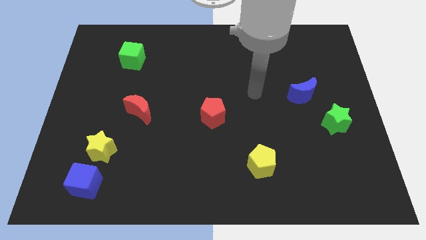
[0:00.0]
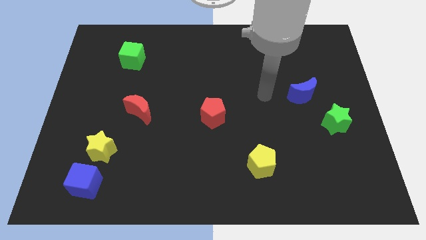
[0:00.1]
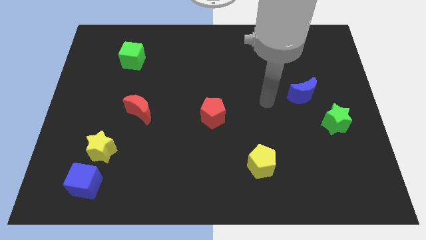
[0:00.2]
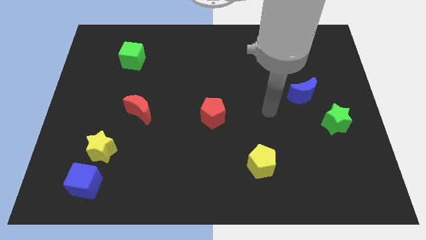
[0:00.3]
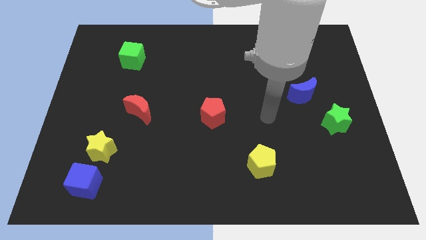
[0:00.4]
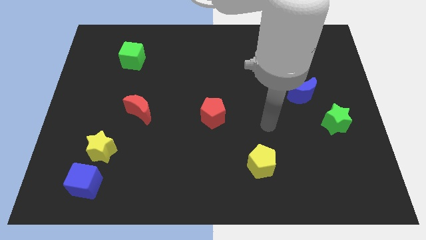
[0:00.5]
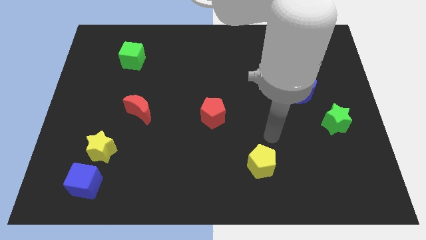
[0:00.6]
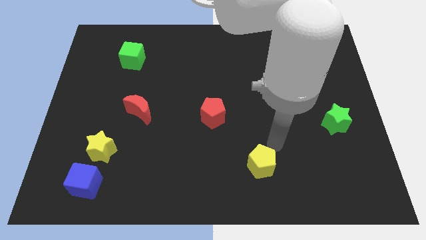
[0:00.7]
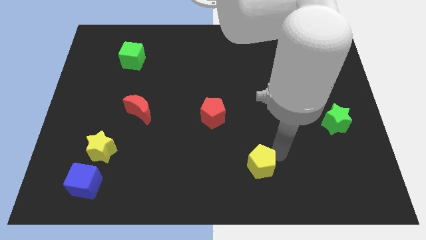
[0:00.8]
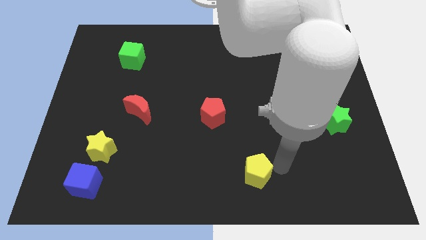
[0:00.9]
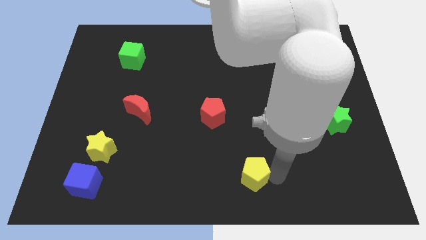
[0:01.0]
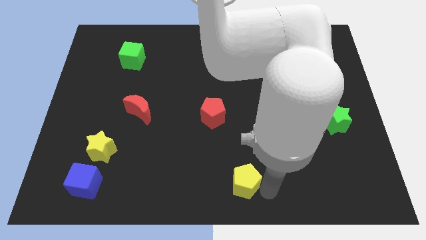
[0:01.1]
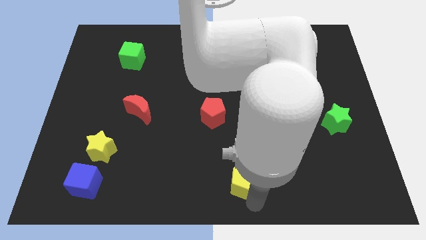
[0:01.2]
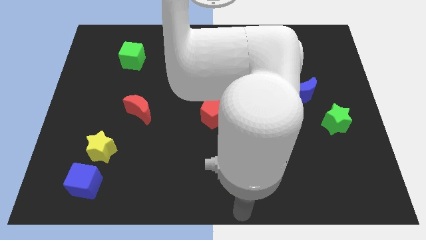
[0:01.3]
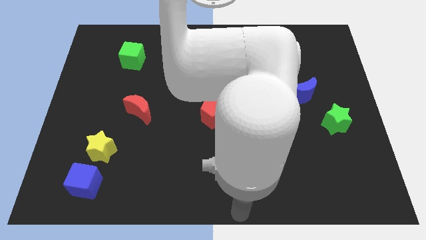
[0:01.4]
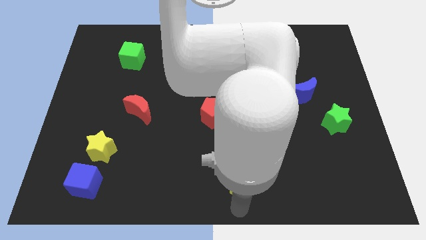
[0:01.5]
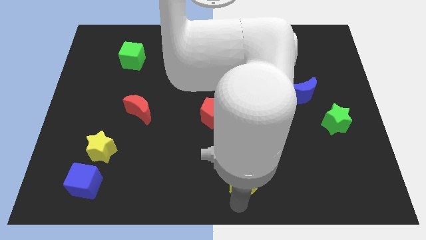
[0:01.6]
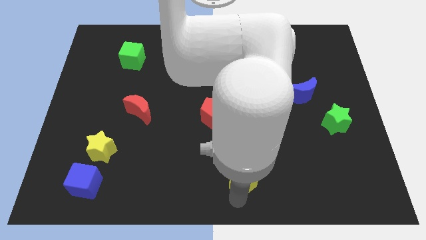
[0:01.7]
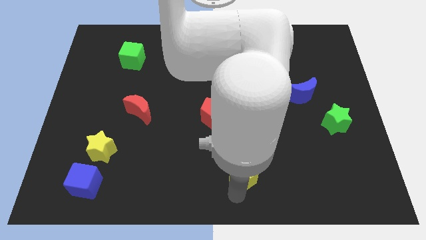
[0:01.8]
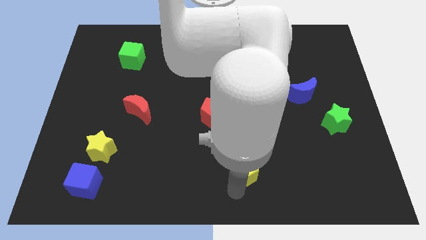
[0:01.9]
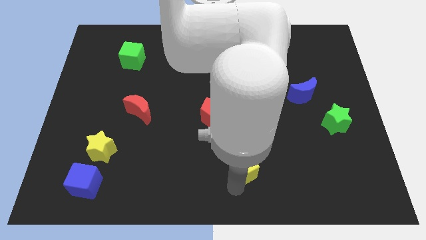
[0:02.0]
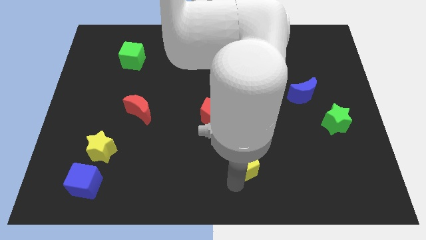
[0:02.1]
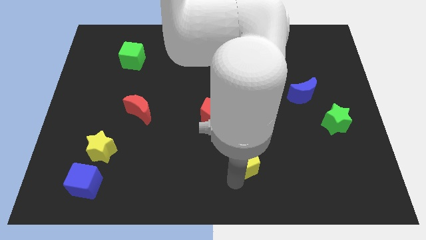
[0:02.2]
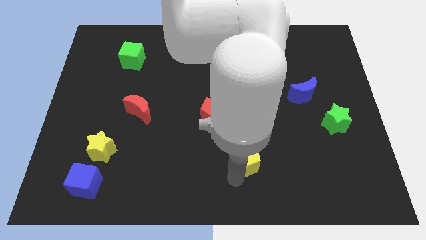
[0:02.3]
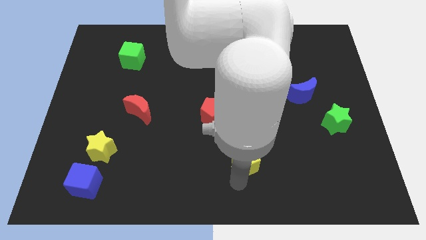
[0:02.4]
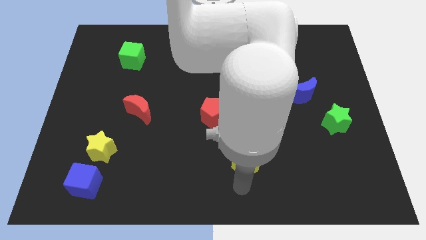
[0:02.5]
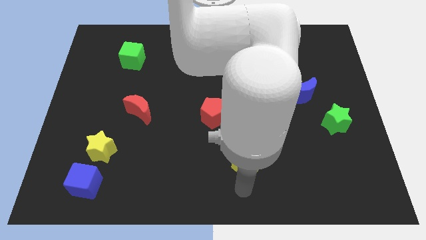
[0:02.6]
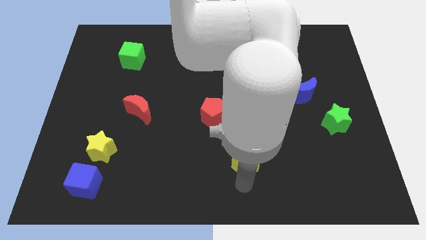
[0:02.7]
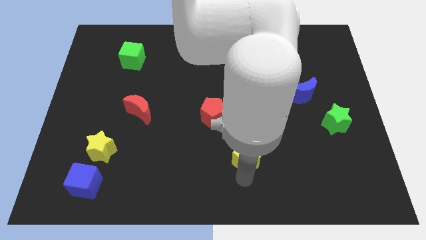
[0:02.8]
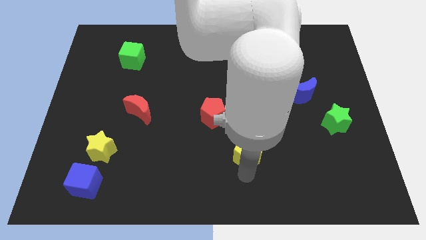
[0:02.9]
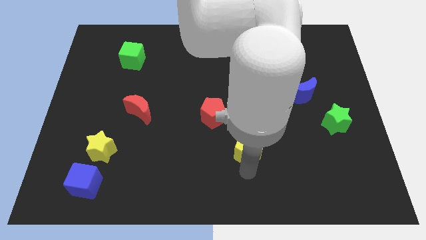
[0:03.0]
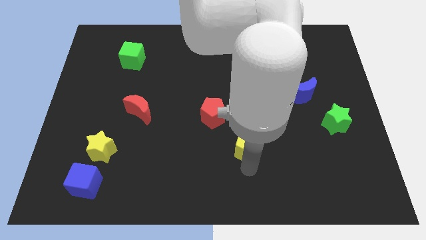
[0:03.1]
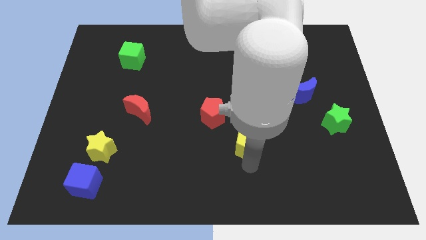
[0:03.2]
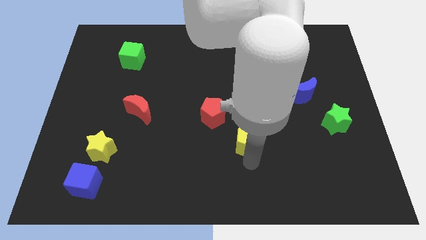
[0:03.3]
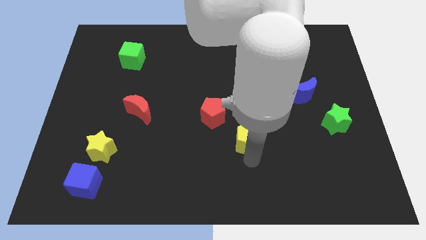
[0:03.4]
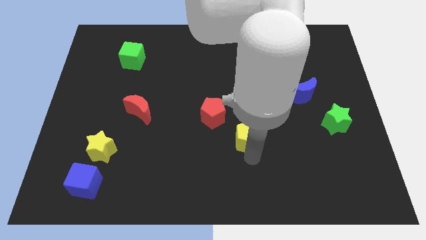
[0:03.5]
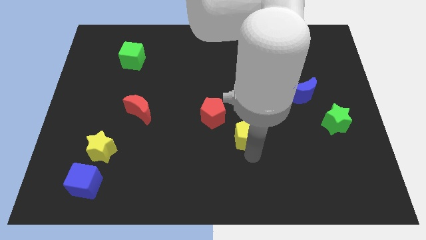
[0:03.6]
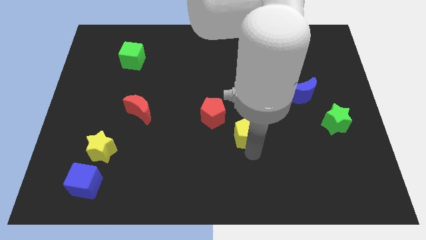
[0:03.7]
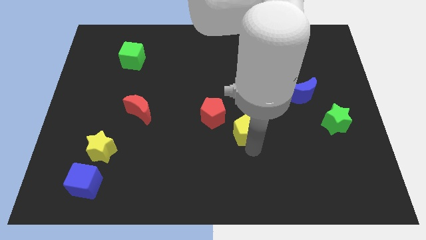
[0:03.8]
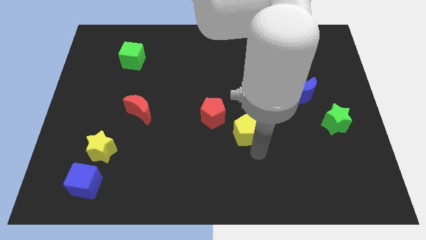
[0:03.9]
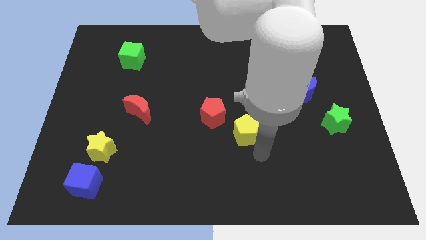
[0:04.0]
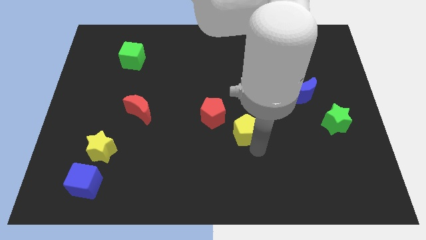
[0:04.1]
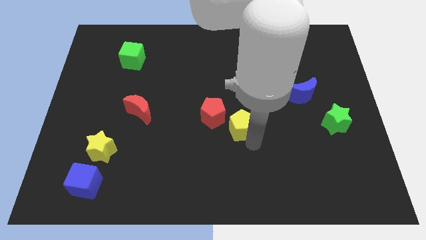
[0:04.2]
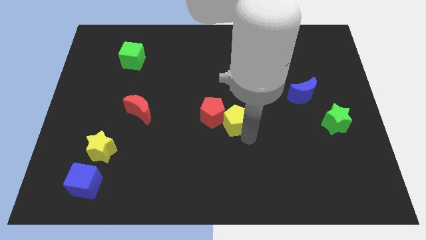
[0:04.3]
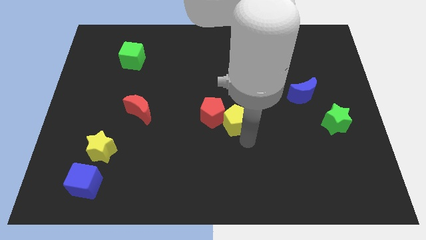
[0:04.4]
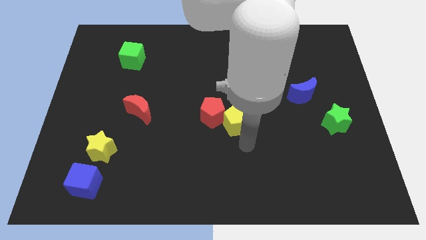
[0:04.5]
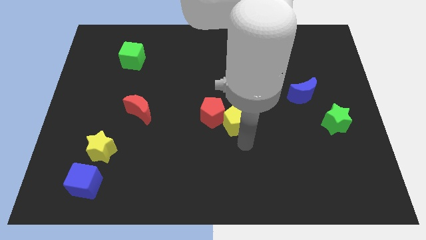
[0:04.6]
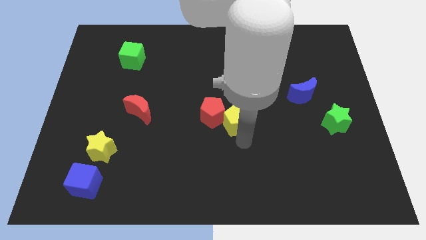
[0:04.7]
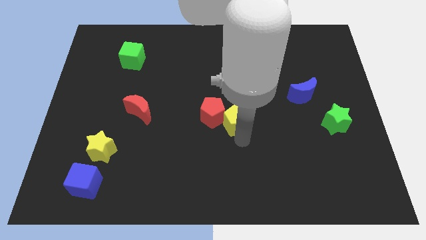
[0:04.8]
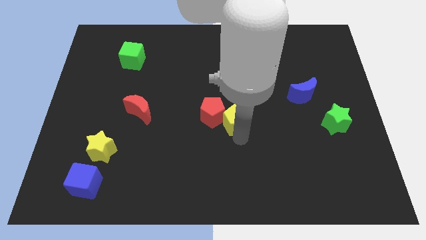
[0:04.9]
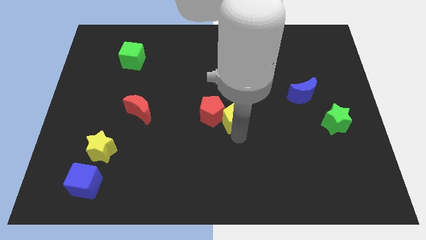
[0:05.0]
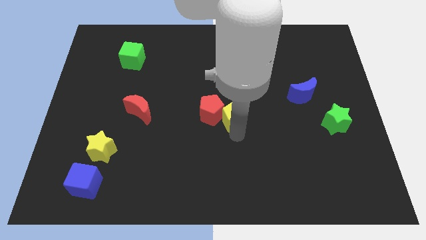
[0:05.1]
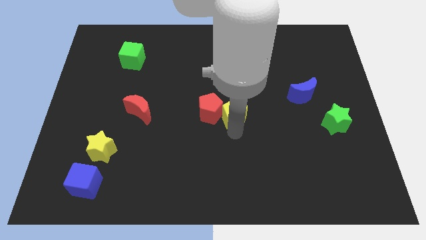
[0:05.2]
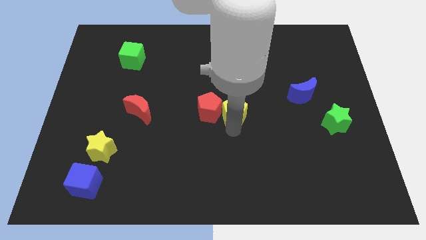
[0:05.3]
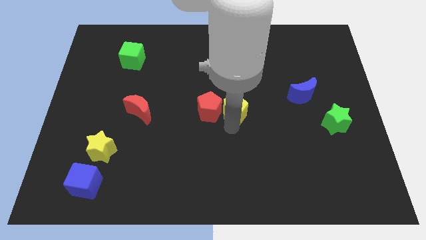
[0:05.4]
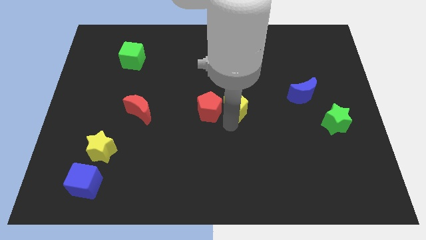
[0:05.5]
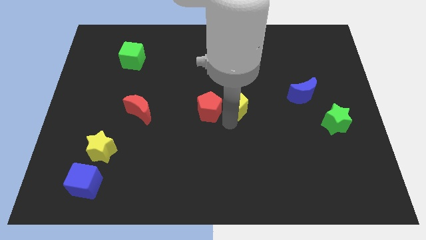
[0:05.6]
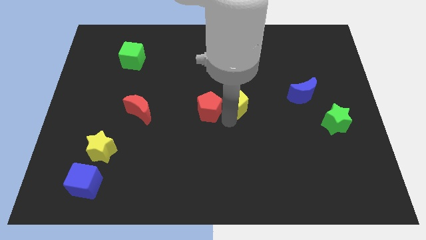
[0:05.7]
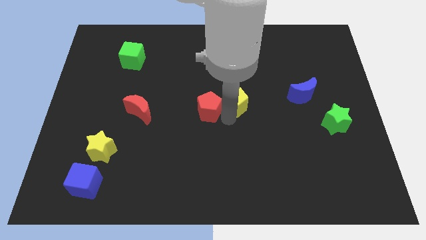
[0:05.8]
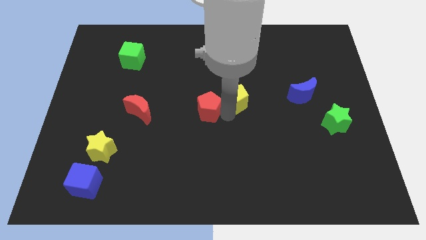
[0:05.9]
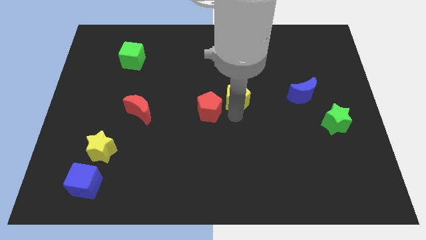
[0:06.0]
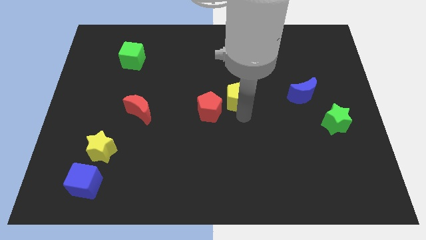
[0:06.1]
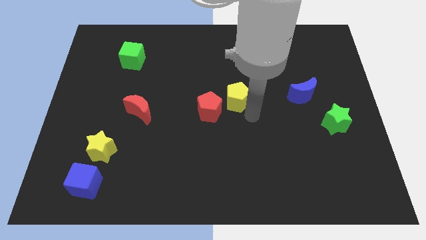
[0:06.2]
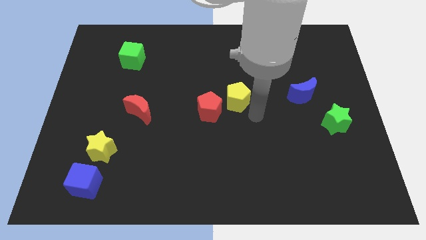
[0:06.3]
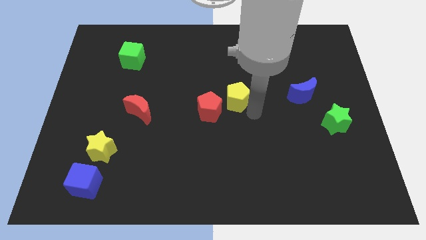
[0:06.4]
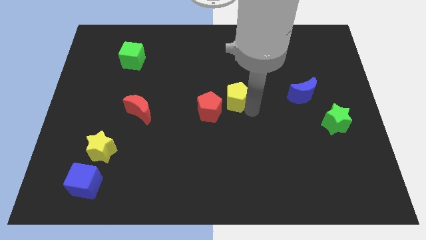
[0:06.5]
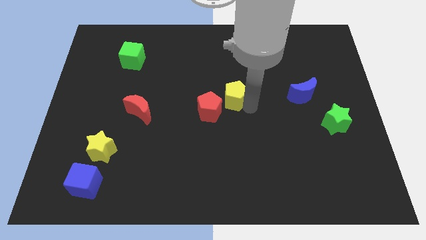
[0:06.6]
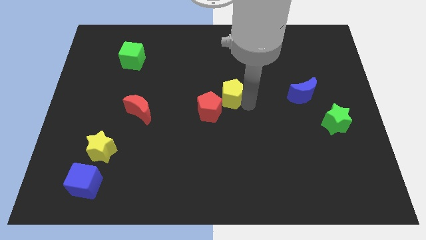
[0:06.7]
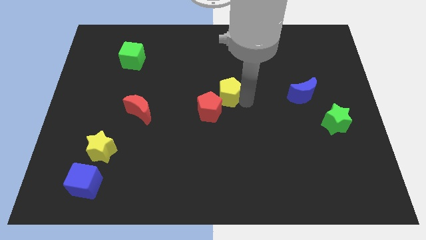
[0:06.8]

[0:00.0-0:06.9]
slide the yellow pentagon to the top side of the red pentagon
